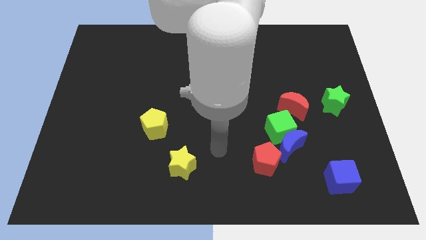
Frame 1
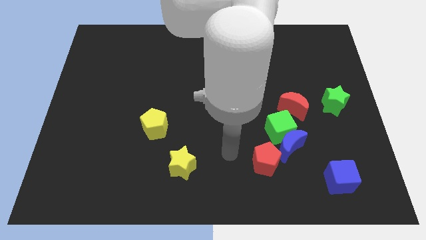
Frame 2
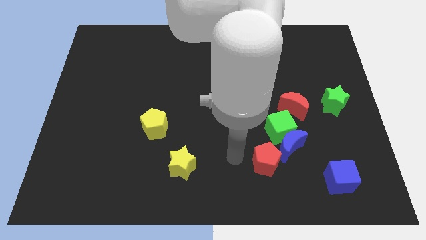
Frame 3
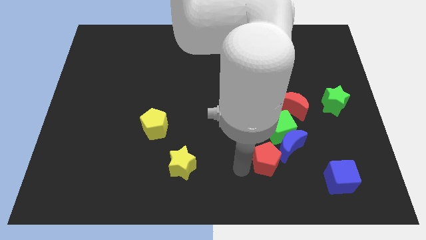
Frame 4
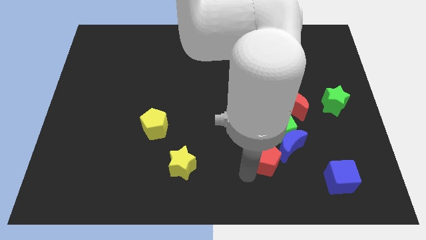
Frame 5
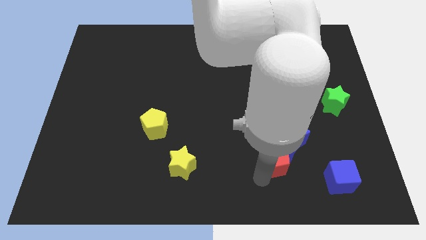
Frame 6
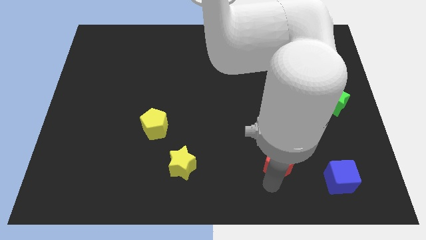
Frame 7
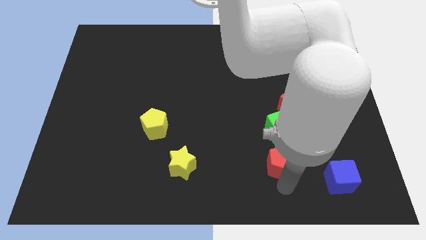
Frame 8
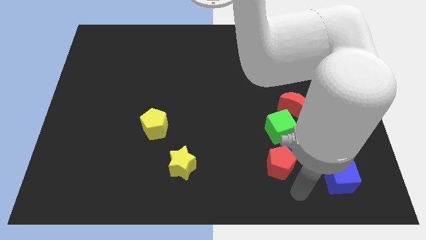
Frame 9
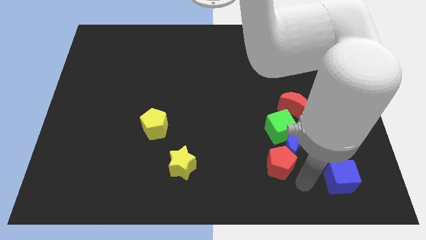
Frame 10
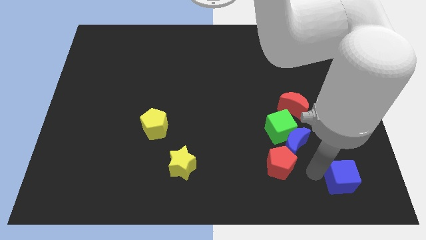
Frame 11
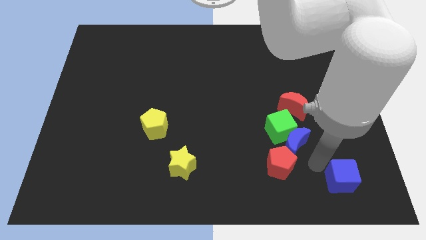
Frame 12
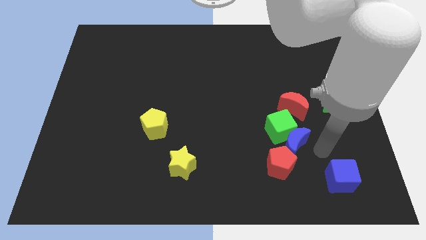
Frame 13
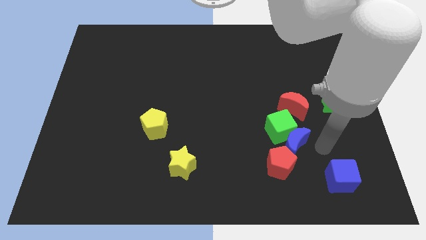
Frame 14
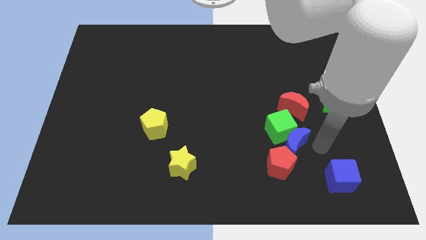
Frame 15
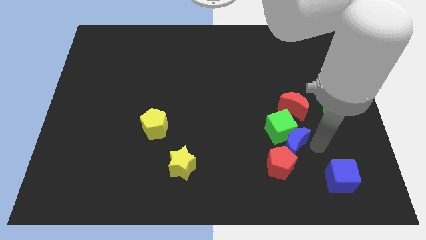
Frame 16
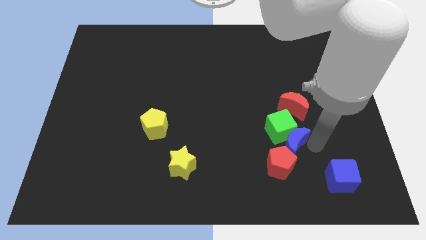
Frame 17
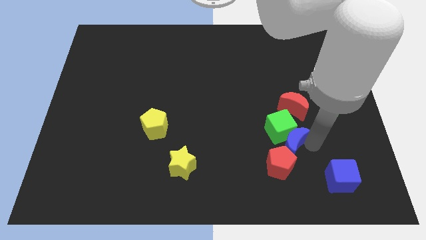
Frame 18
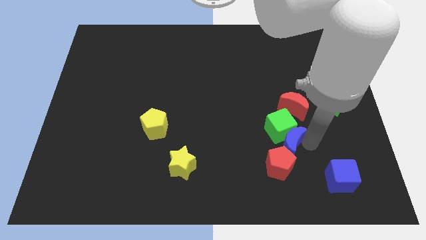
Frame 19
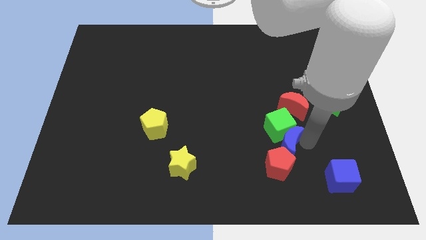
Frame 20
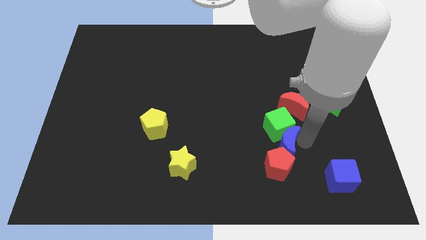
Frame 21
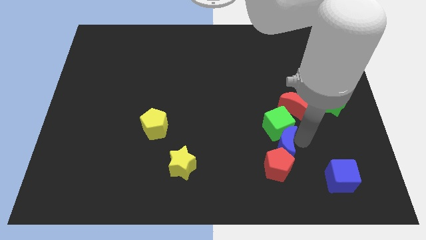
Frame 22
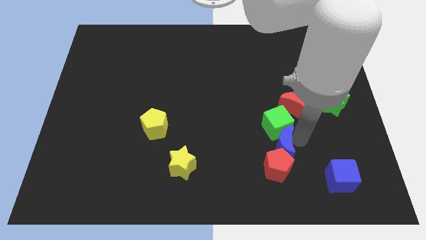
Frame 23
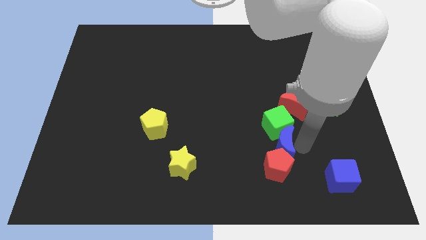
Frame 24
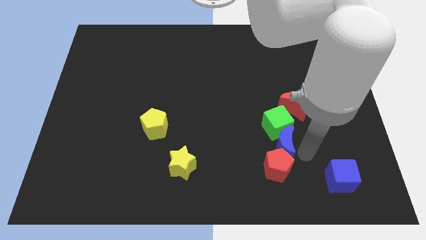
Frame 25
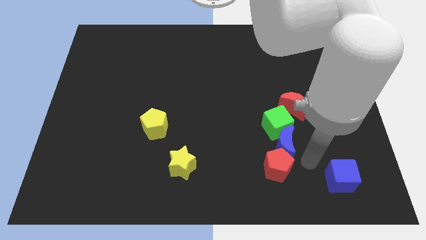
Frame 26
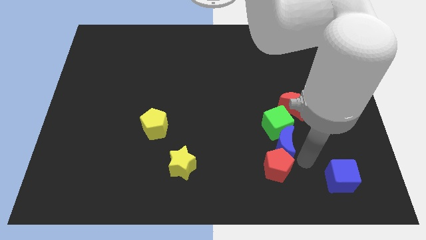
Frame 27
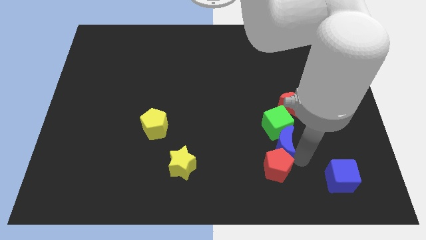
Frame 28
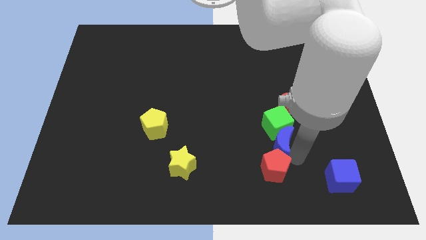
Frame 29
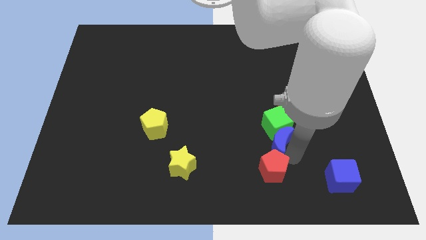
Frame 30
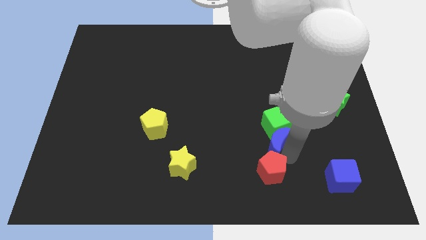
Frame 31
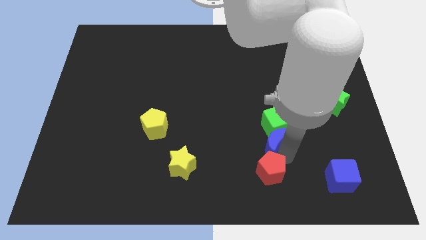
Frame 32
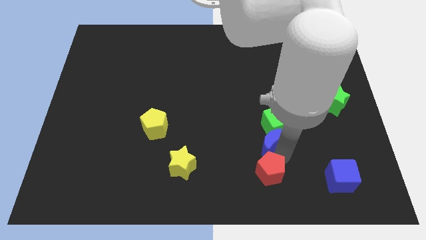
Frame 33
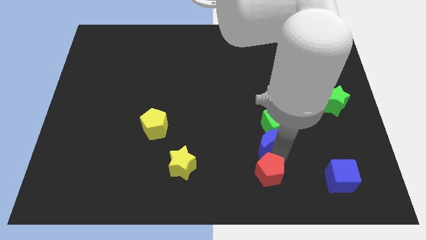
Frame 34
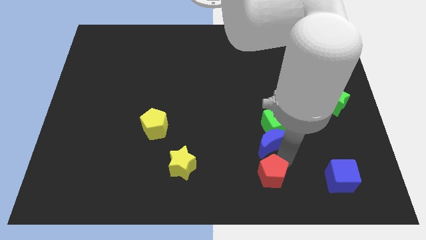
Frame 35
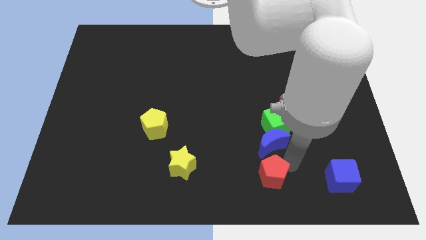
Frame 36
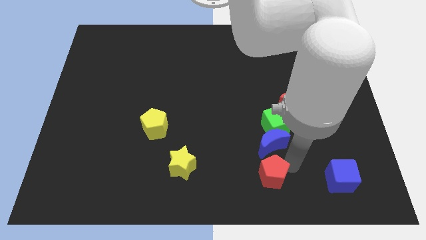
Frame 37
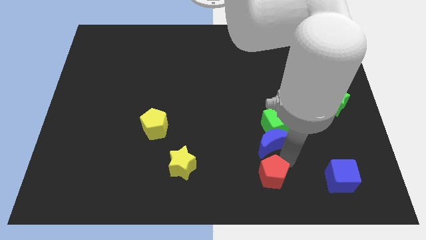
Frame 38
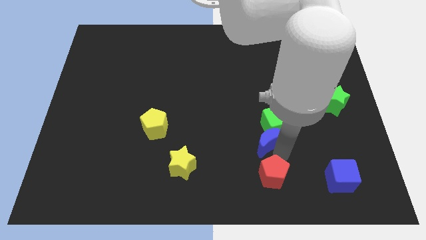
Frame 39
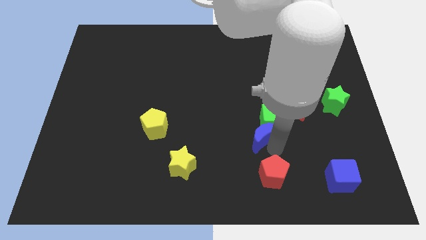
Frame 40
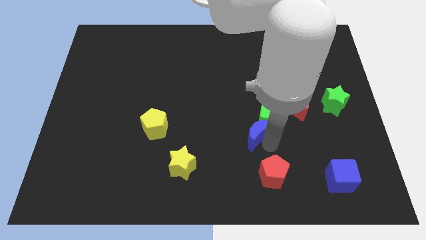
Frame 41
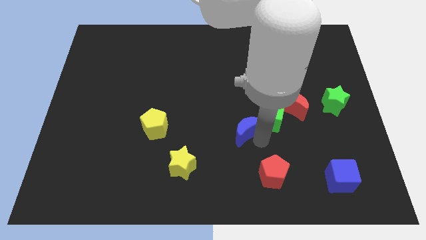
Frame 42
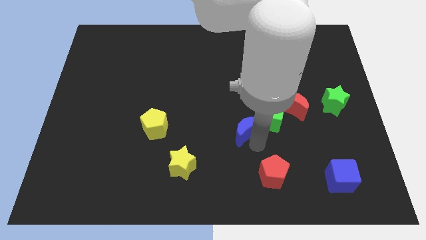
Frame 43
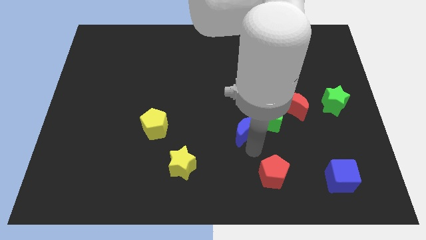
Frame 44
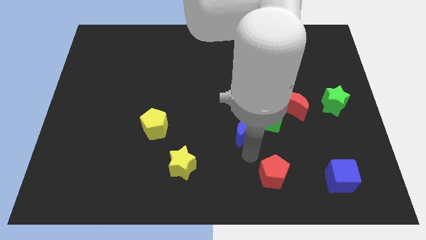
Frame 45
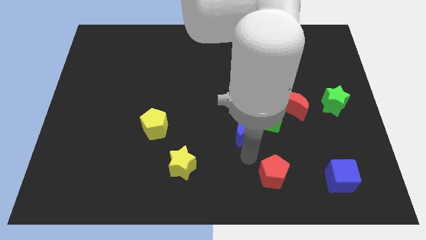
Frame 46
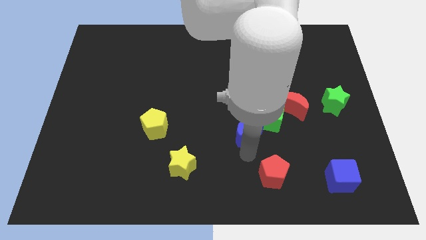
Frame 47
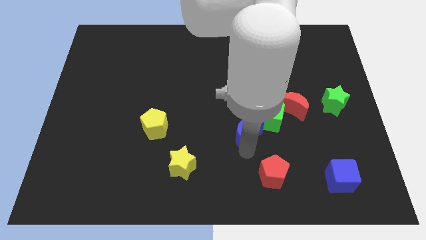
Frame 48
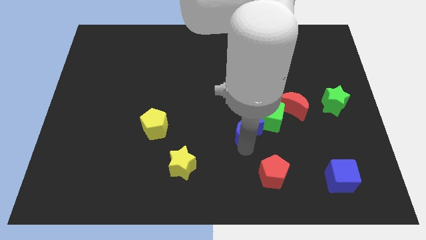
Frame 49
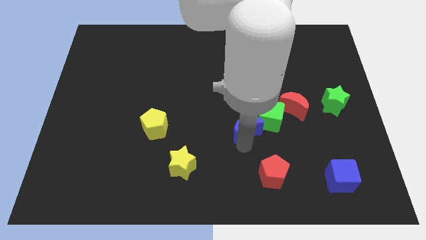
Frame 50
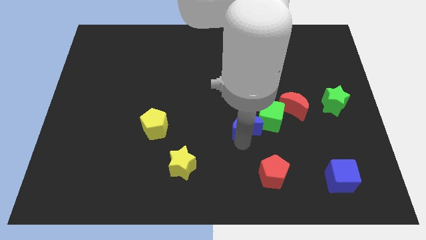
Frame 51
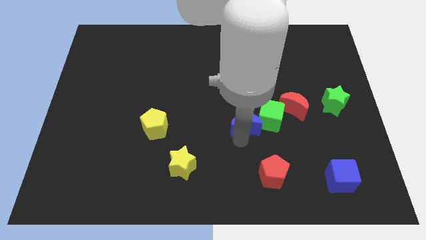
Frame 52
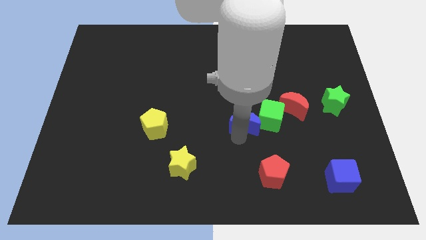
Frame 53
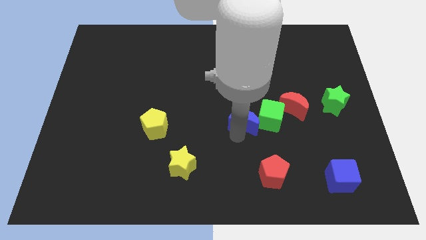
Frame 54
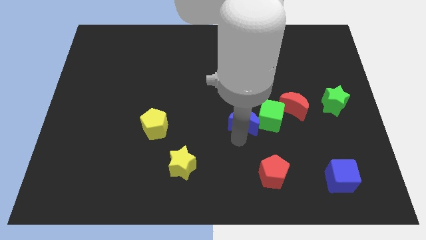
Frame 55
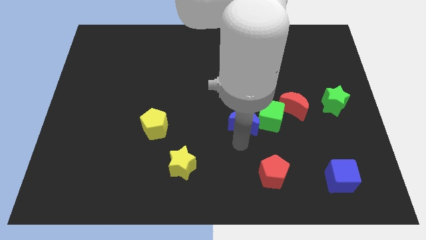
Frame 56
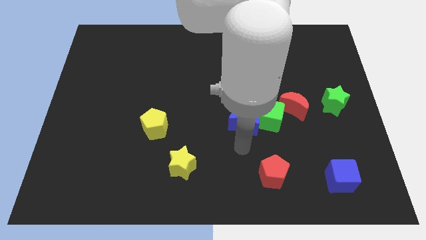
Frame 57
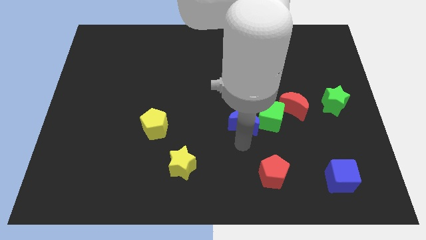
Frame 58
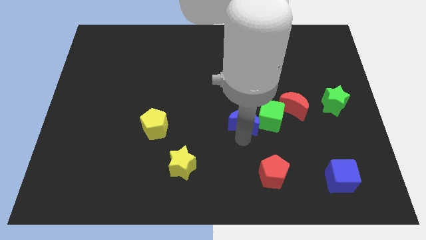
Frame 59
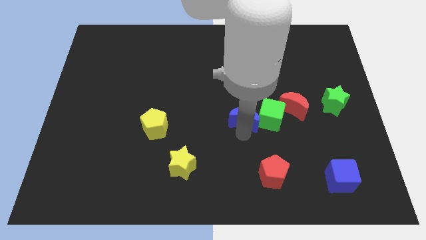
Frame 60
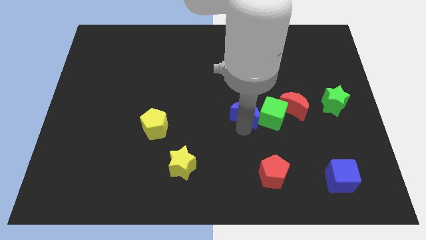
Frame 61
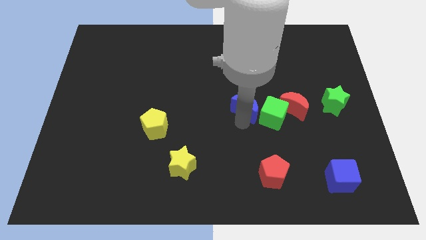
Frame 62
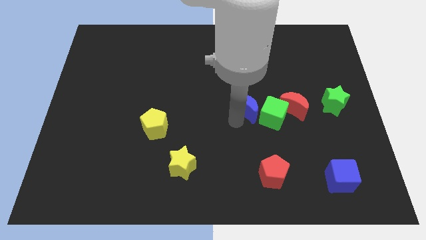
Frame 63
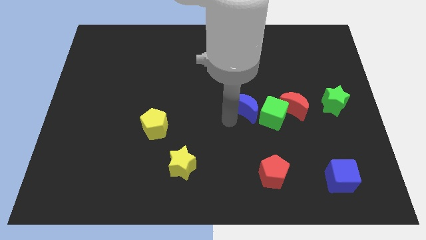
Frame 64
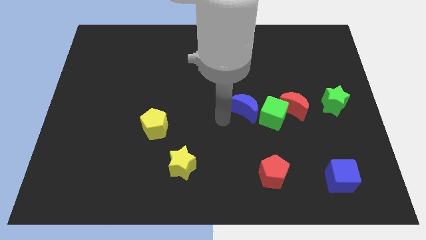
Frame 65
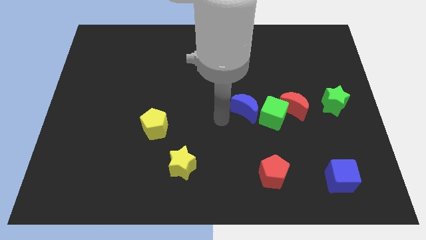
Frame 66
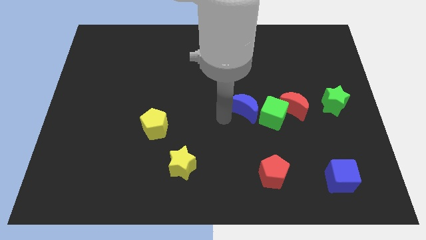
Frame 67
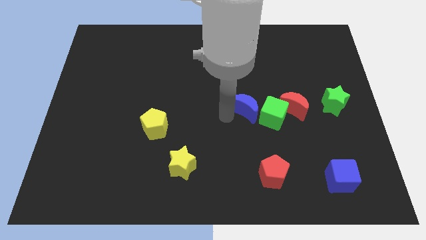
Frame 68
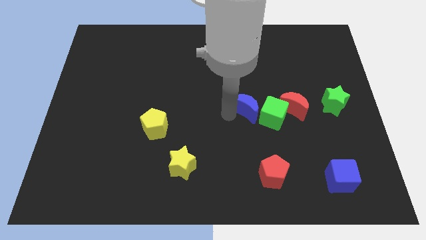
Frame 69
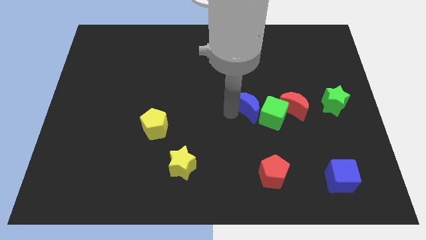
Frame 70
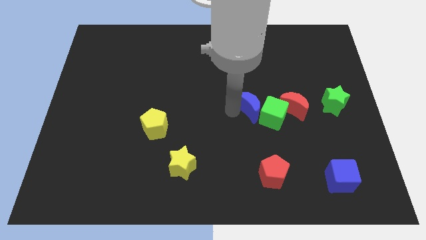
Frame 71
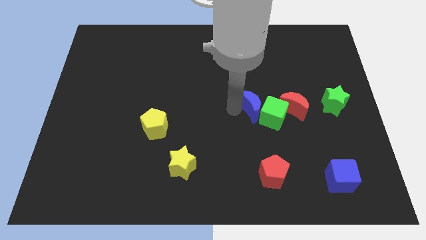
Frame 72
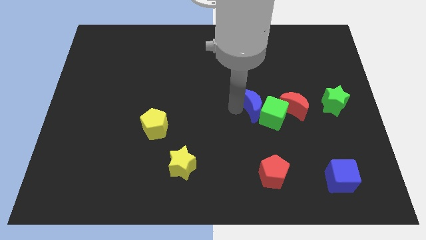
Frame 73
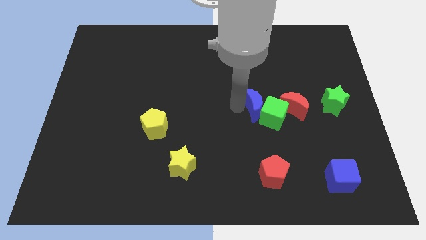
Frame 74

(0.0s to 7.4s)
slide the blue moon to the top of the green cube
